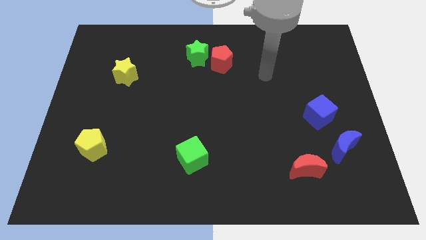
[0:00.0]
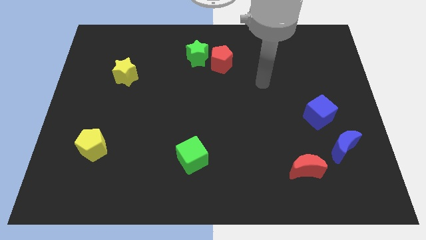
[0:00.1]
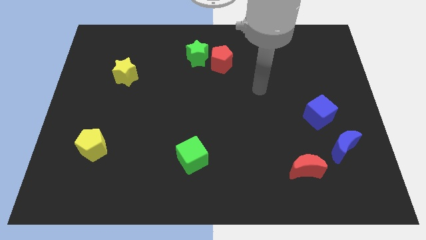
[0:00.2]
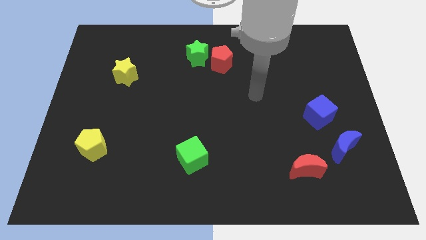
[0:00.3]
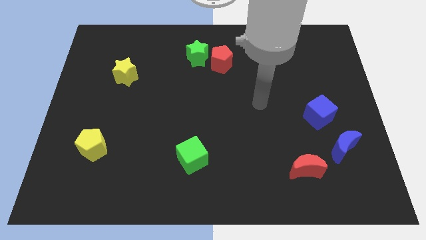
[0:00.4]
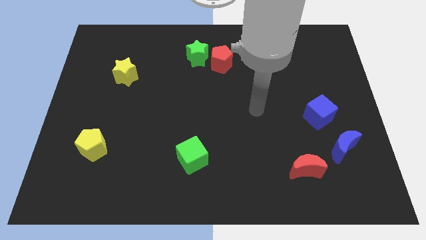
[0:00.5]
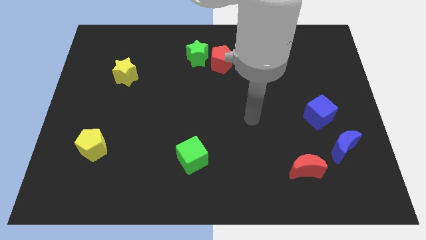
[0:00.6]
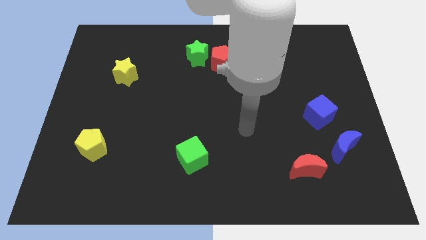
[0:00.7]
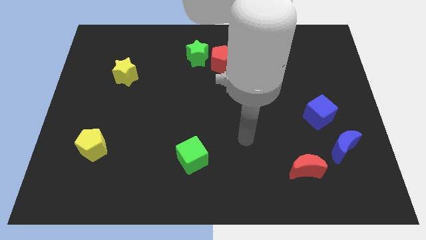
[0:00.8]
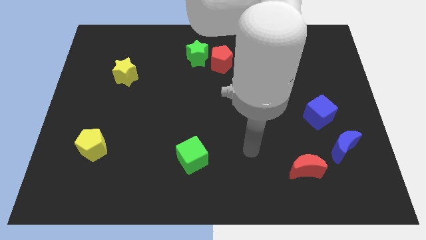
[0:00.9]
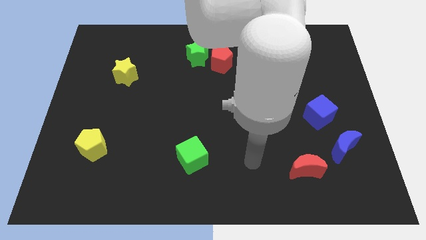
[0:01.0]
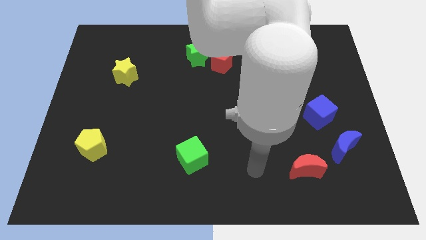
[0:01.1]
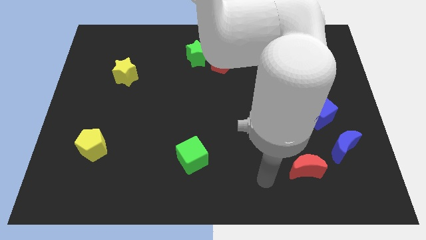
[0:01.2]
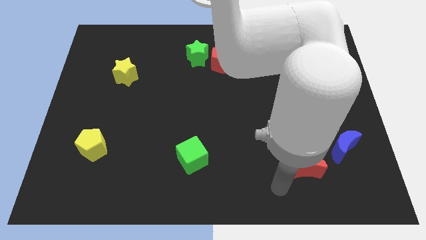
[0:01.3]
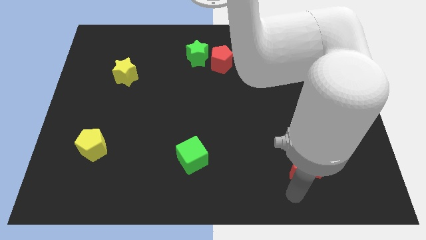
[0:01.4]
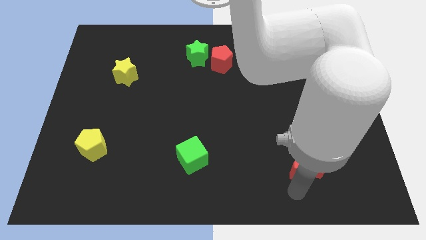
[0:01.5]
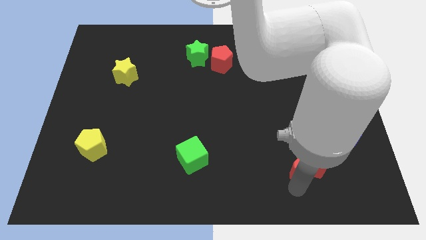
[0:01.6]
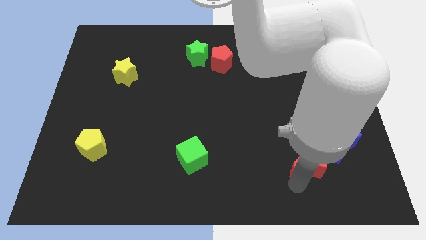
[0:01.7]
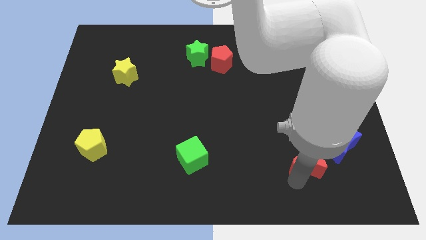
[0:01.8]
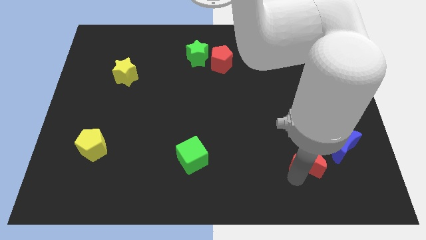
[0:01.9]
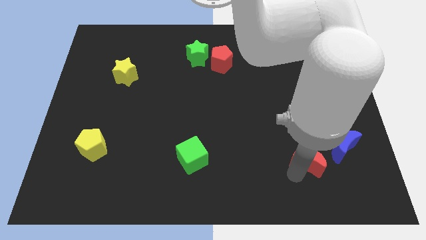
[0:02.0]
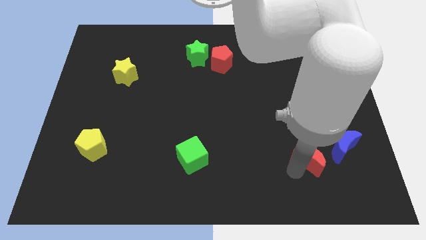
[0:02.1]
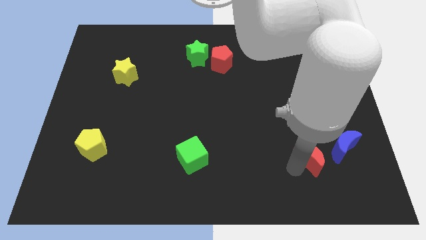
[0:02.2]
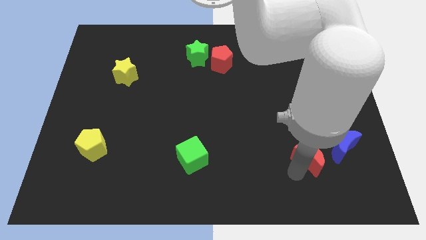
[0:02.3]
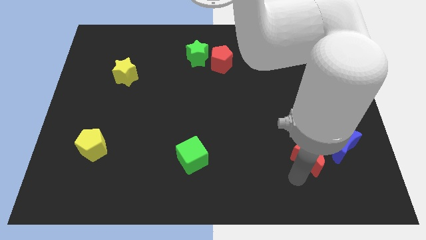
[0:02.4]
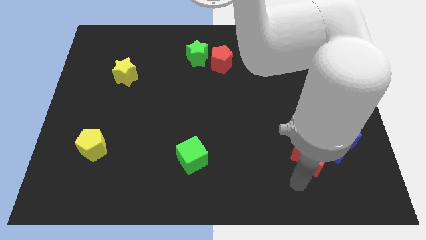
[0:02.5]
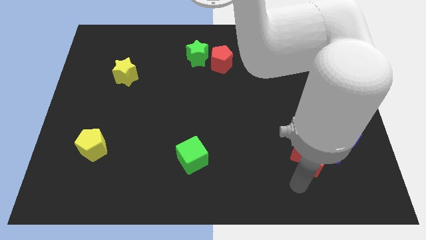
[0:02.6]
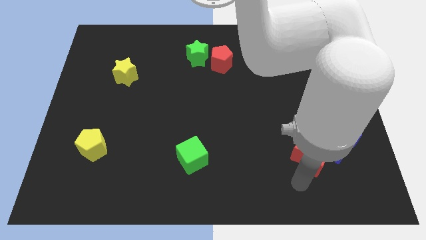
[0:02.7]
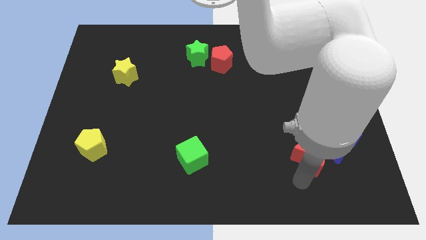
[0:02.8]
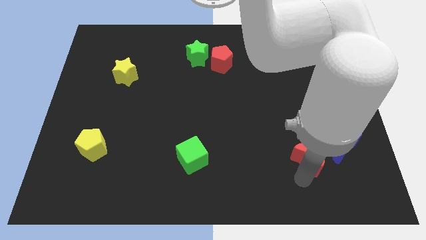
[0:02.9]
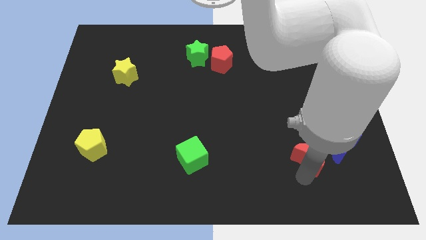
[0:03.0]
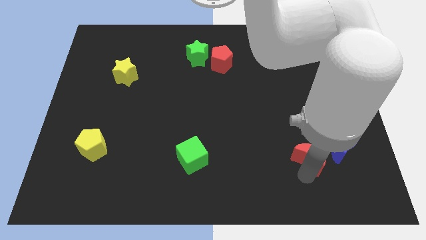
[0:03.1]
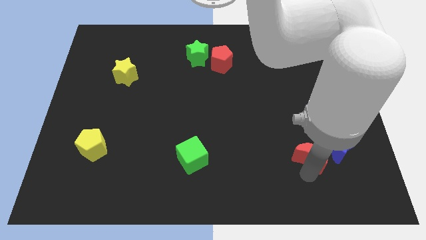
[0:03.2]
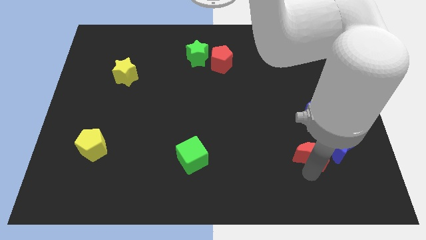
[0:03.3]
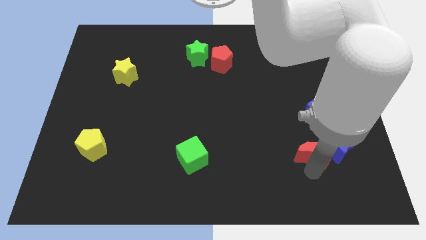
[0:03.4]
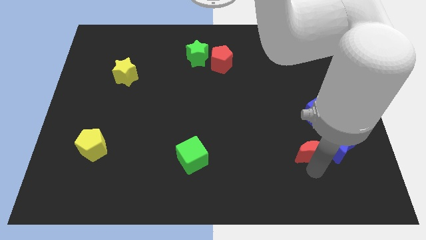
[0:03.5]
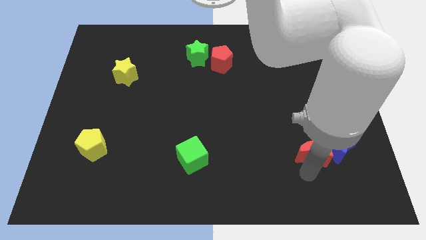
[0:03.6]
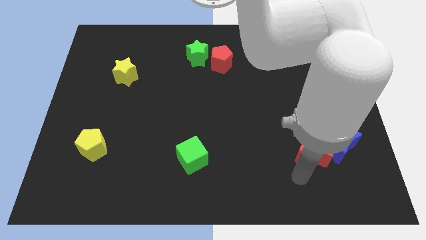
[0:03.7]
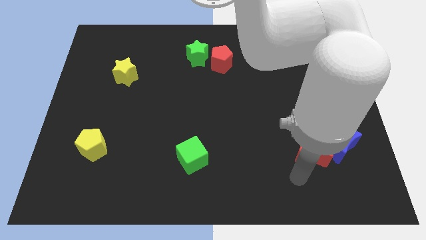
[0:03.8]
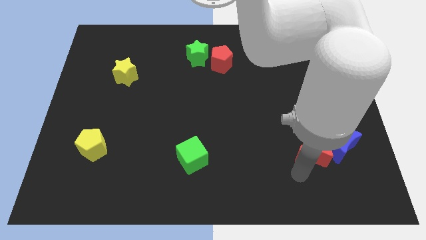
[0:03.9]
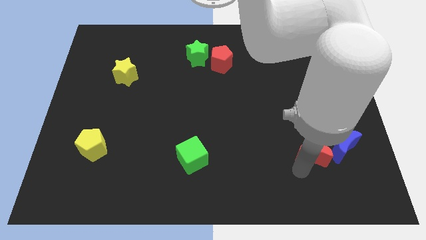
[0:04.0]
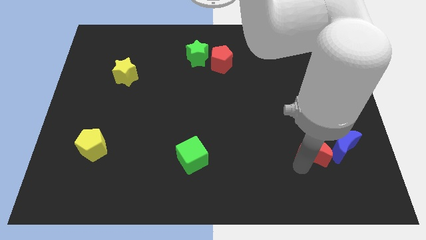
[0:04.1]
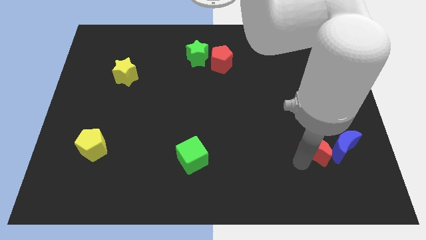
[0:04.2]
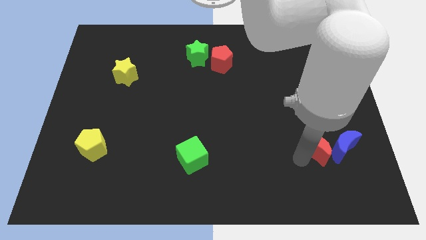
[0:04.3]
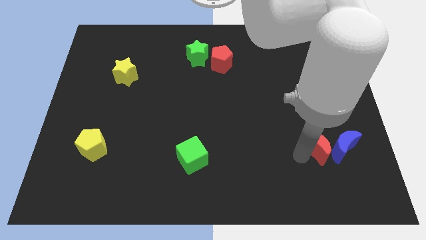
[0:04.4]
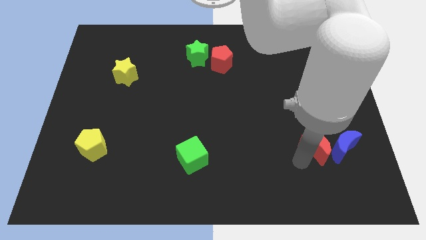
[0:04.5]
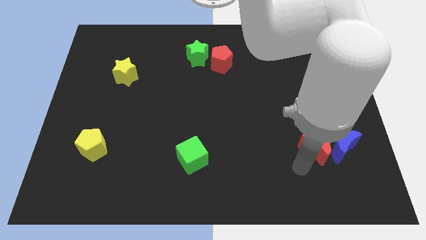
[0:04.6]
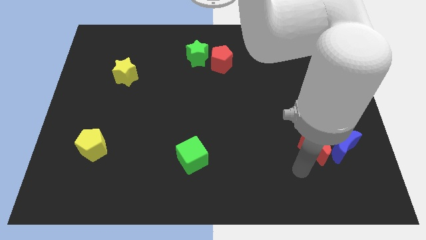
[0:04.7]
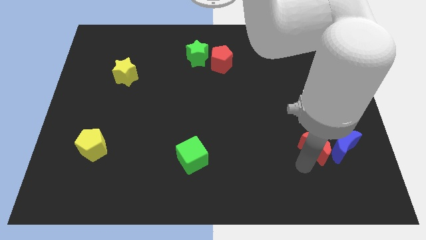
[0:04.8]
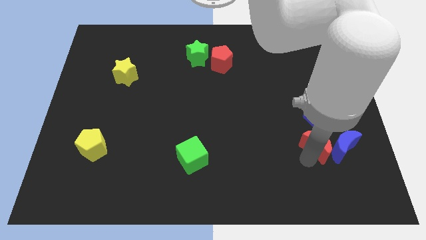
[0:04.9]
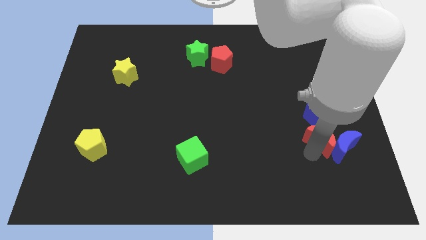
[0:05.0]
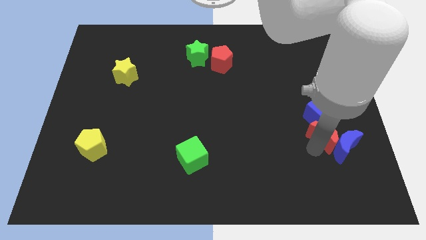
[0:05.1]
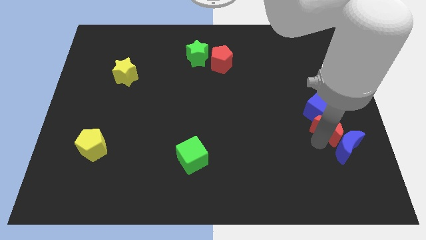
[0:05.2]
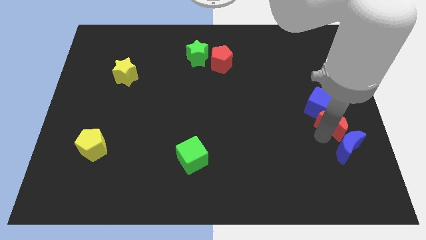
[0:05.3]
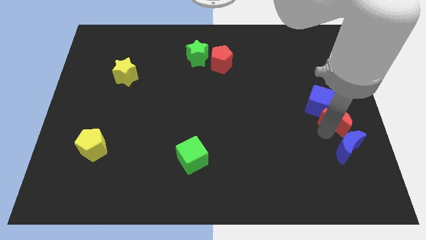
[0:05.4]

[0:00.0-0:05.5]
put the red moon to the right side
